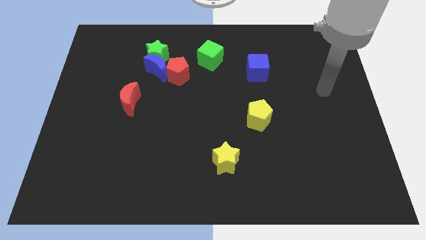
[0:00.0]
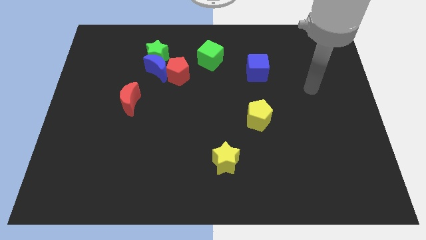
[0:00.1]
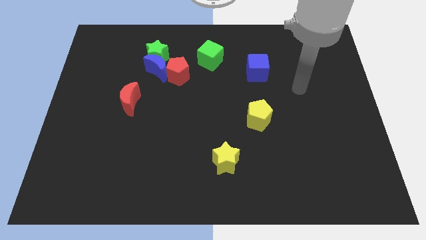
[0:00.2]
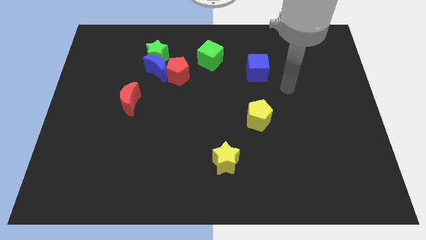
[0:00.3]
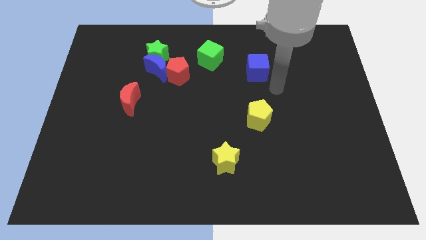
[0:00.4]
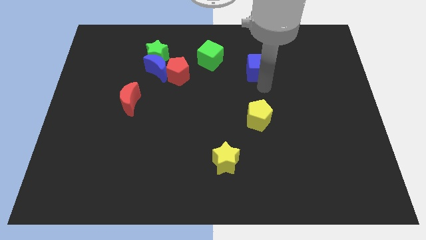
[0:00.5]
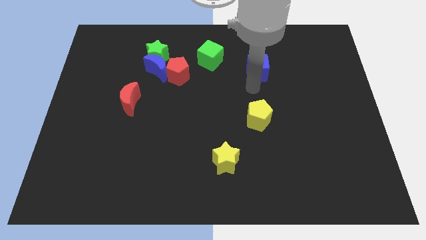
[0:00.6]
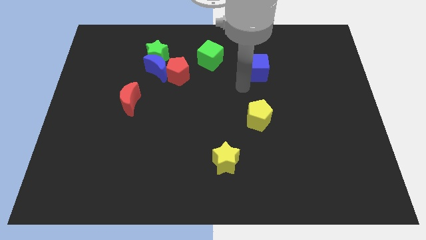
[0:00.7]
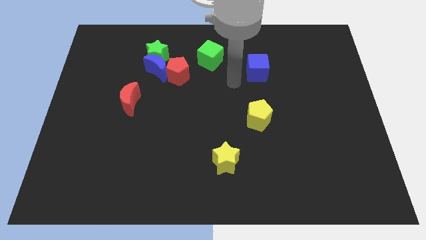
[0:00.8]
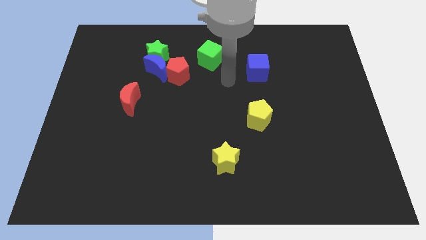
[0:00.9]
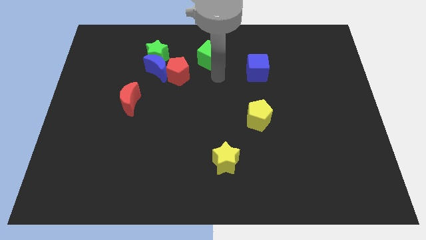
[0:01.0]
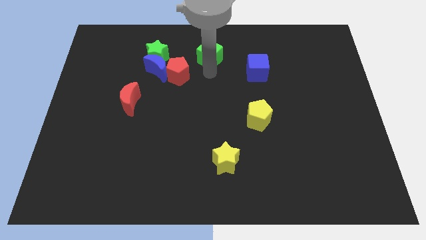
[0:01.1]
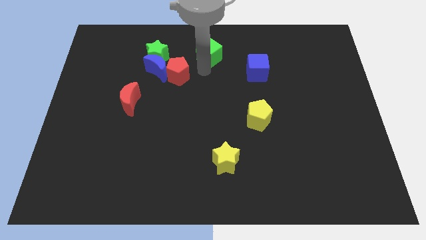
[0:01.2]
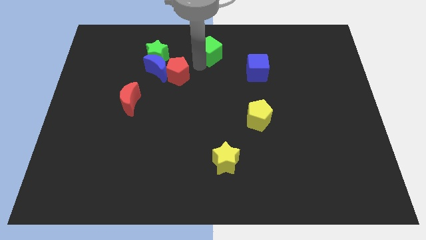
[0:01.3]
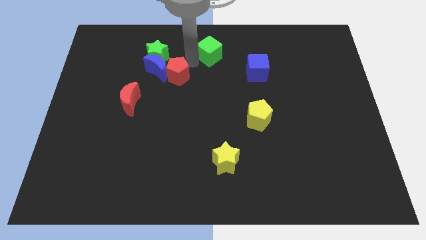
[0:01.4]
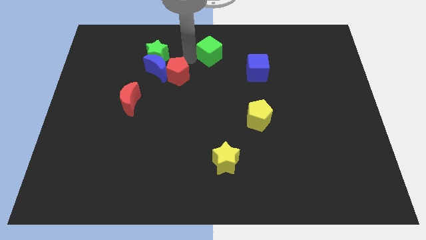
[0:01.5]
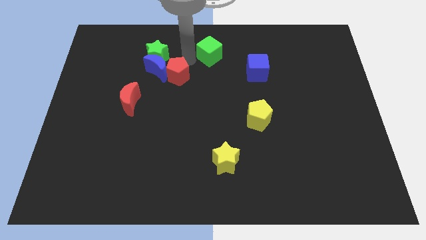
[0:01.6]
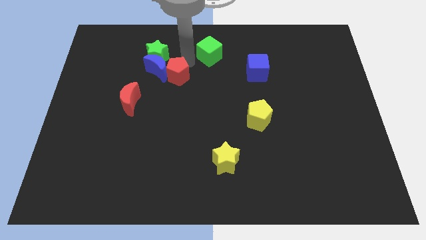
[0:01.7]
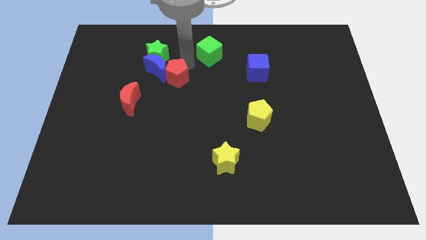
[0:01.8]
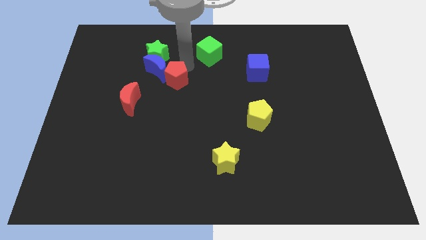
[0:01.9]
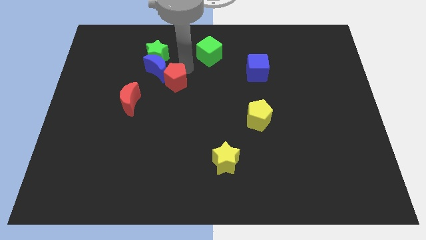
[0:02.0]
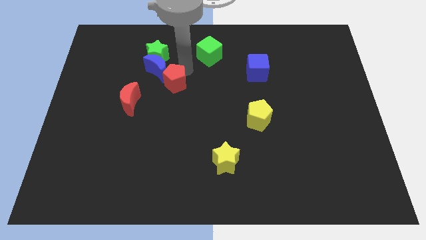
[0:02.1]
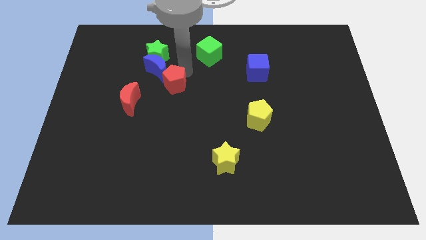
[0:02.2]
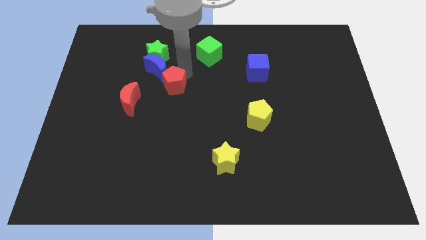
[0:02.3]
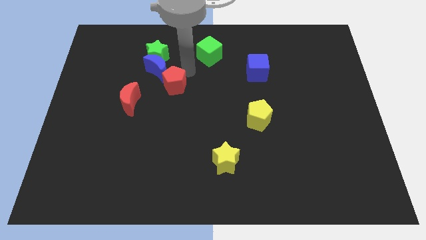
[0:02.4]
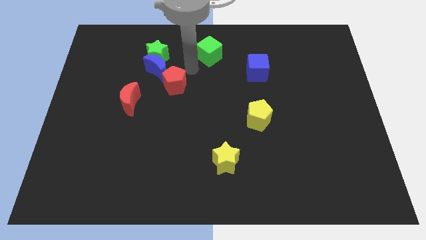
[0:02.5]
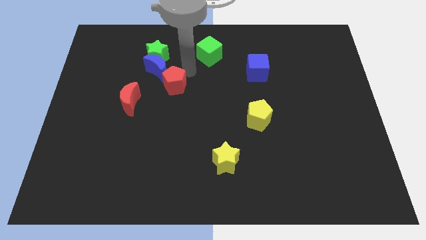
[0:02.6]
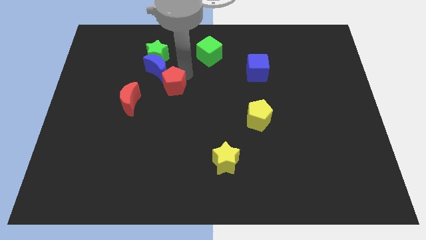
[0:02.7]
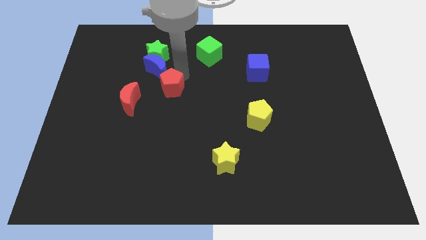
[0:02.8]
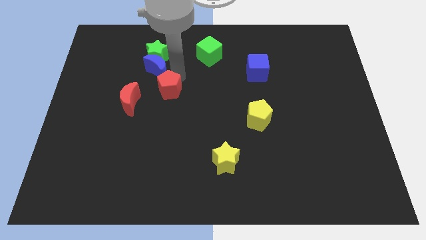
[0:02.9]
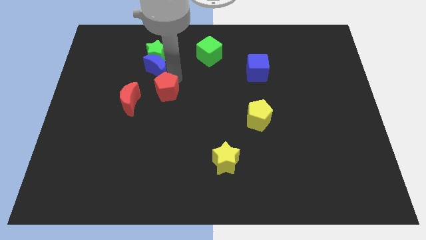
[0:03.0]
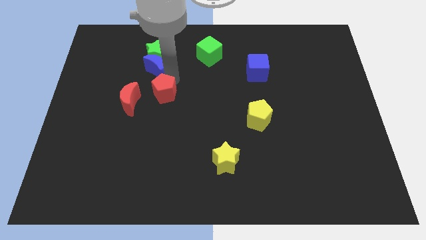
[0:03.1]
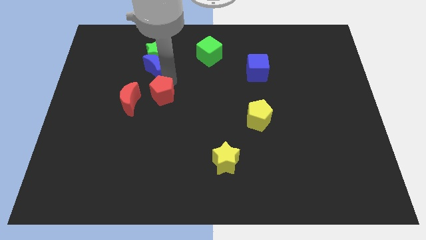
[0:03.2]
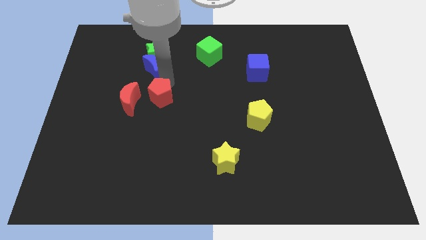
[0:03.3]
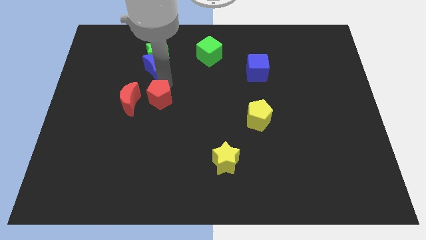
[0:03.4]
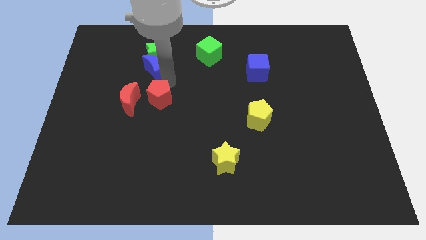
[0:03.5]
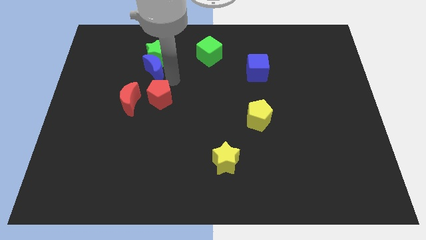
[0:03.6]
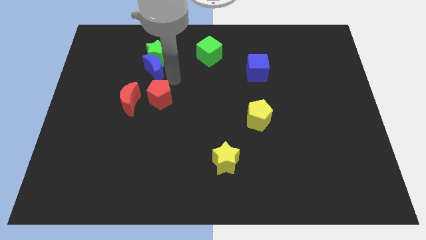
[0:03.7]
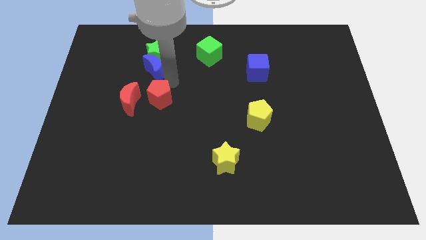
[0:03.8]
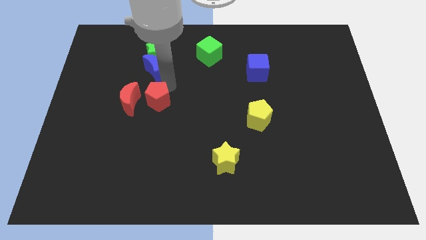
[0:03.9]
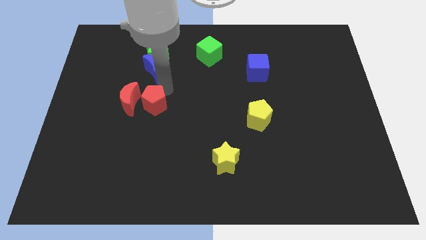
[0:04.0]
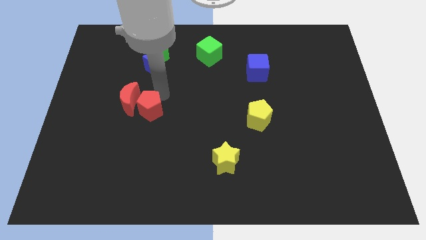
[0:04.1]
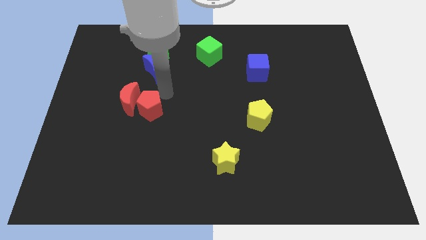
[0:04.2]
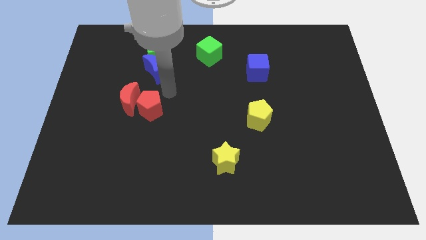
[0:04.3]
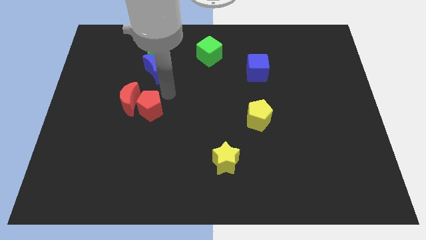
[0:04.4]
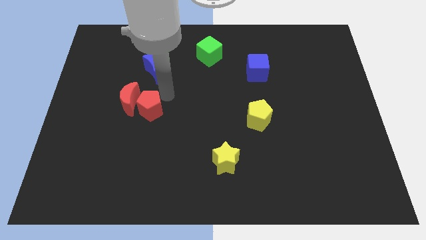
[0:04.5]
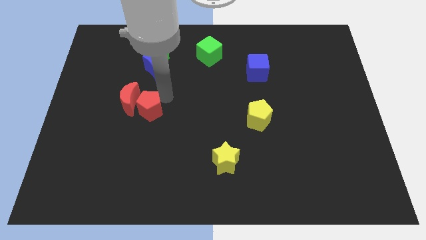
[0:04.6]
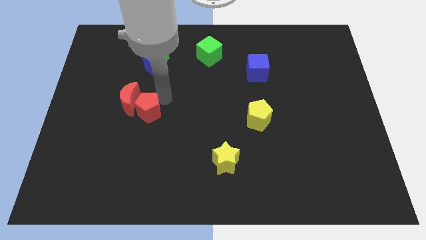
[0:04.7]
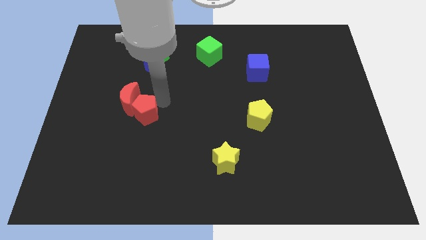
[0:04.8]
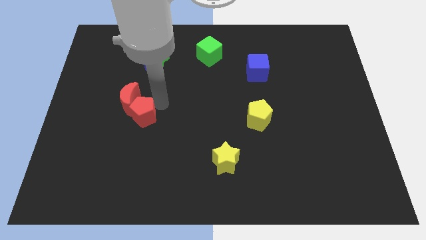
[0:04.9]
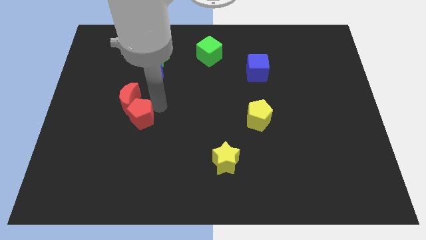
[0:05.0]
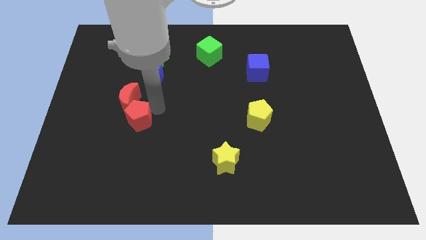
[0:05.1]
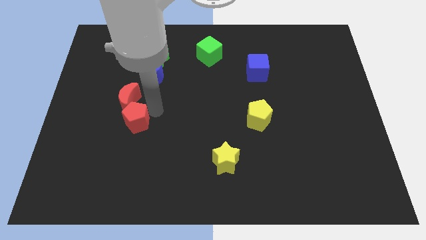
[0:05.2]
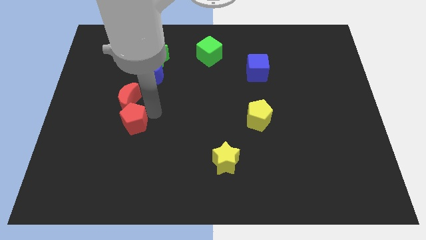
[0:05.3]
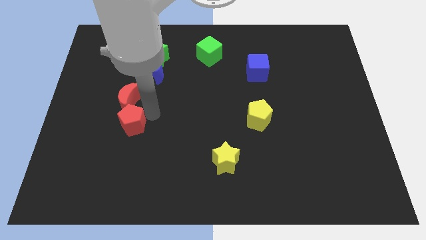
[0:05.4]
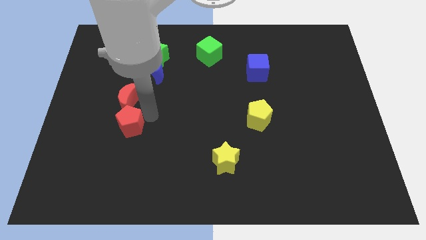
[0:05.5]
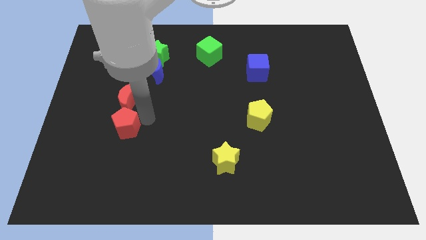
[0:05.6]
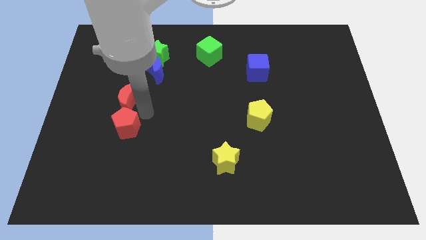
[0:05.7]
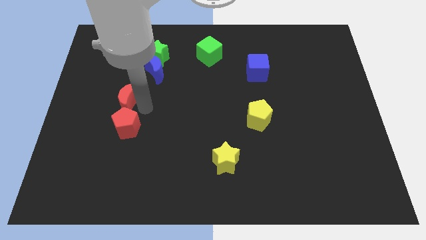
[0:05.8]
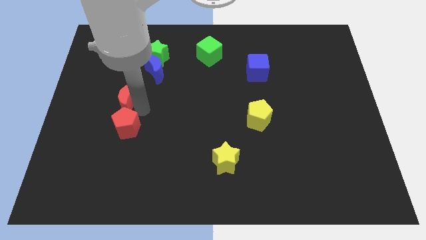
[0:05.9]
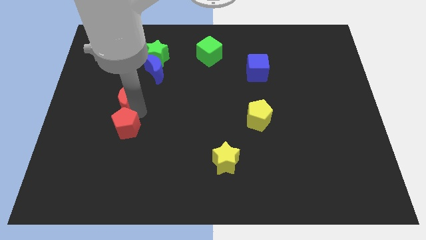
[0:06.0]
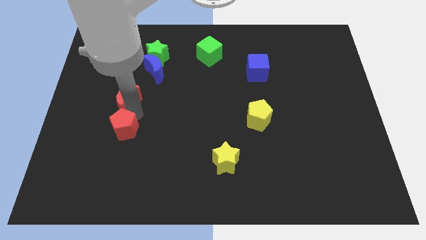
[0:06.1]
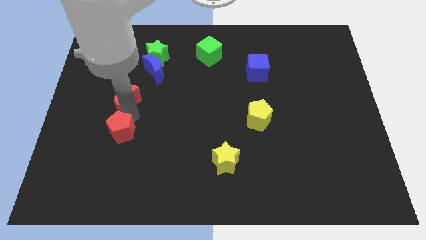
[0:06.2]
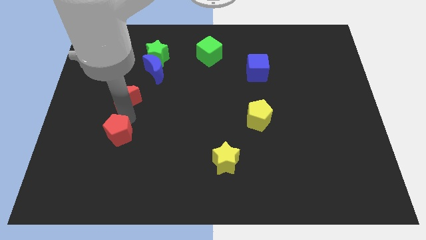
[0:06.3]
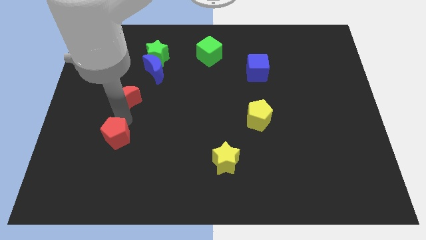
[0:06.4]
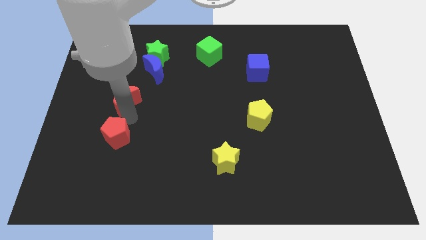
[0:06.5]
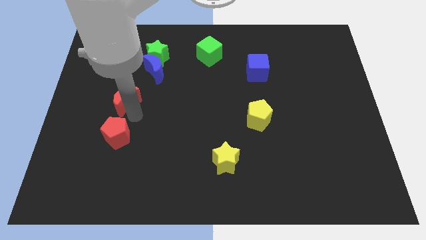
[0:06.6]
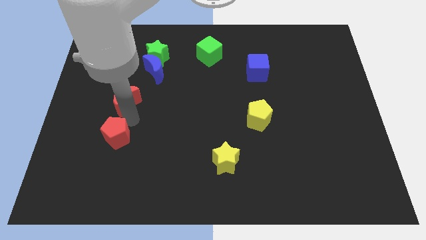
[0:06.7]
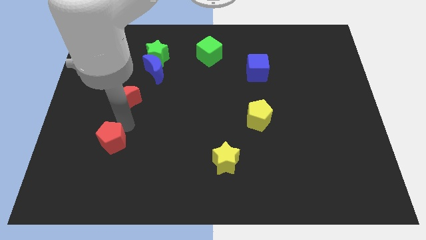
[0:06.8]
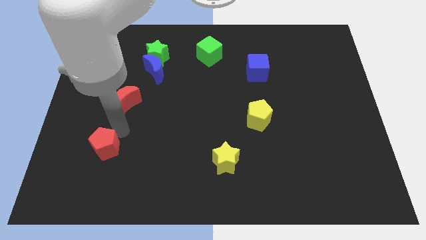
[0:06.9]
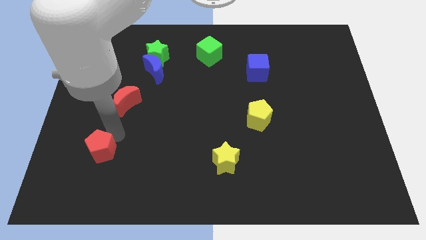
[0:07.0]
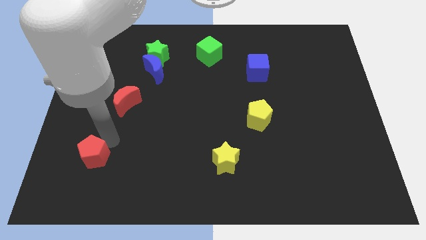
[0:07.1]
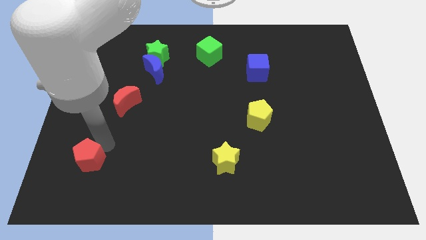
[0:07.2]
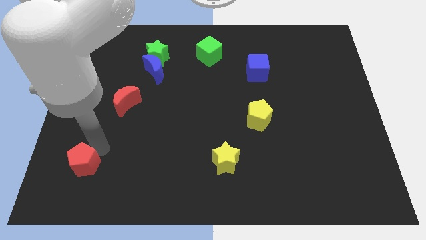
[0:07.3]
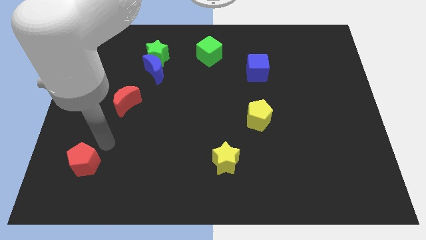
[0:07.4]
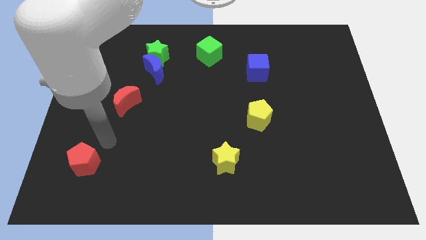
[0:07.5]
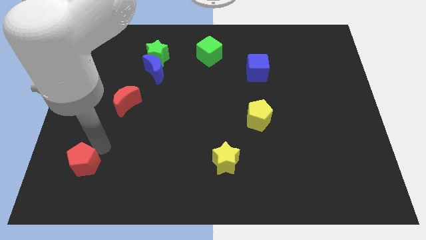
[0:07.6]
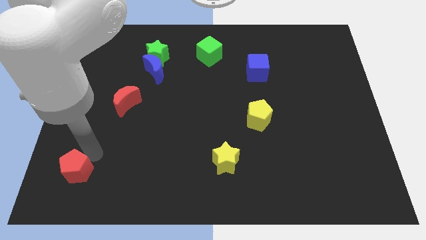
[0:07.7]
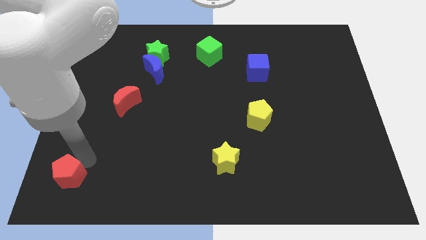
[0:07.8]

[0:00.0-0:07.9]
put the red pentagon to the bottom left

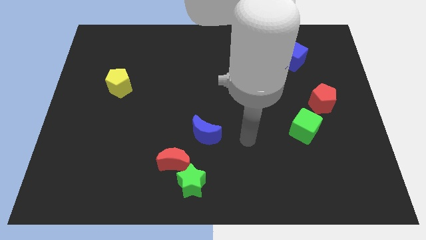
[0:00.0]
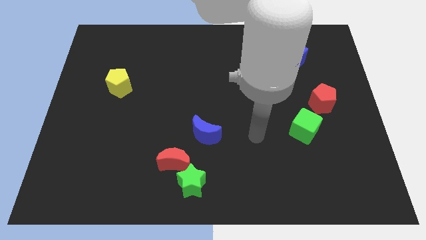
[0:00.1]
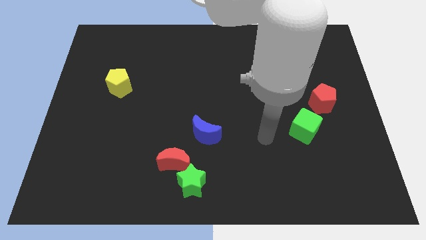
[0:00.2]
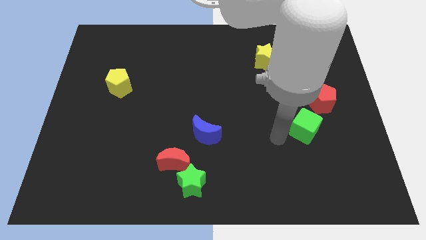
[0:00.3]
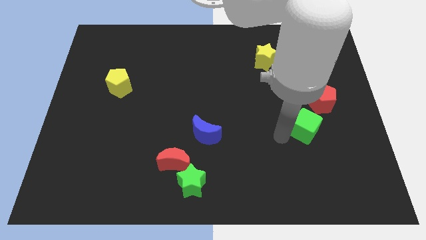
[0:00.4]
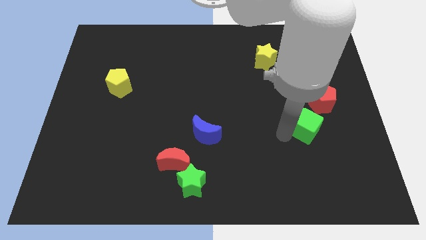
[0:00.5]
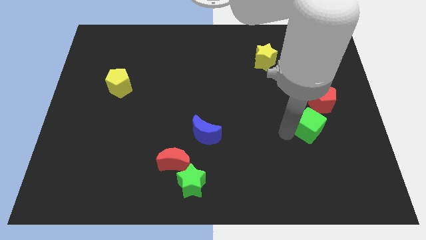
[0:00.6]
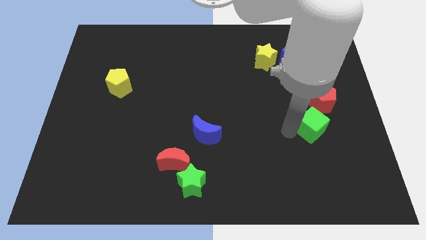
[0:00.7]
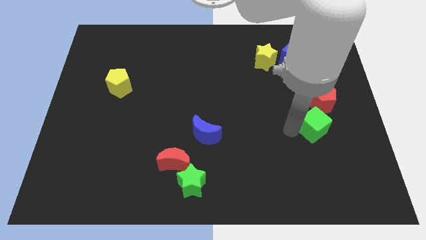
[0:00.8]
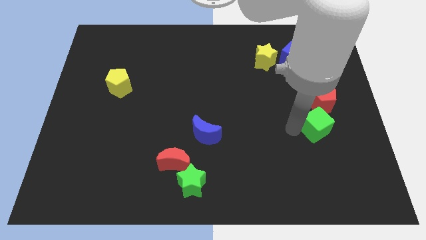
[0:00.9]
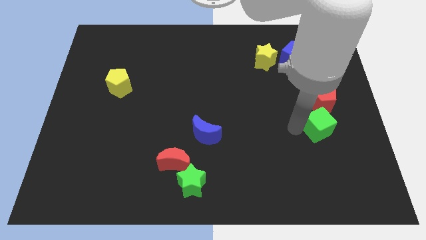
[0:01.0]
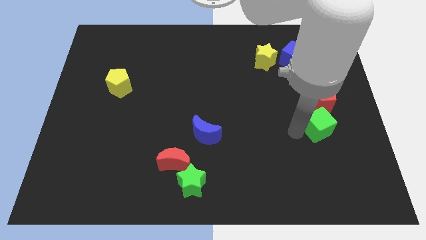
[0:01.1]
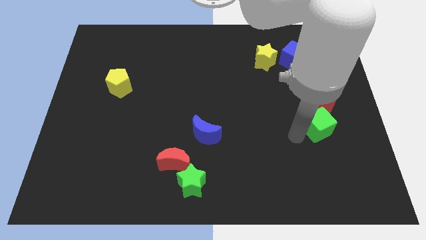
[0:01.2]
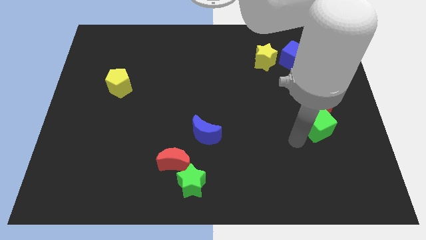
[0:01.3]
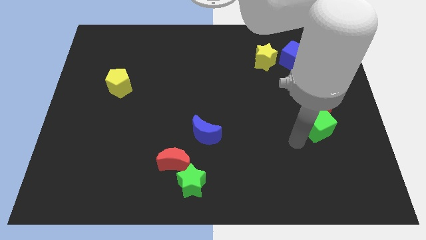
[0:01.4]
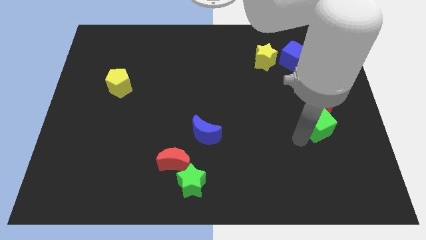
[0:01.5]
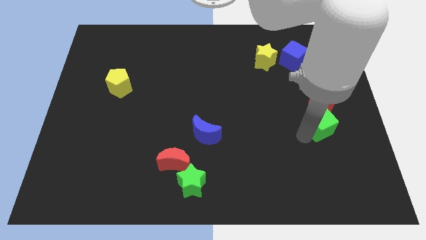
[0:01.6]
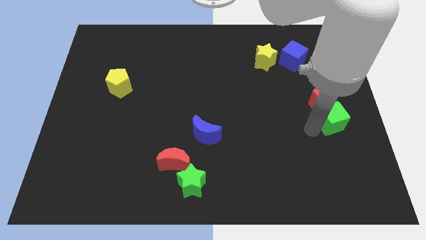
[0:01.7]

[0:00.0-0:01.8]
push the green cube to the center right
